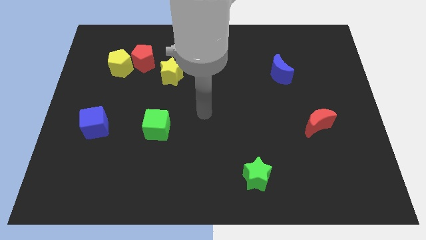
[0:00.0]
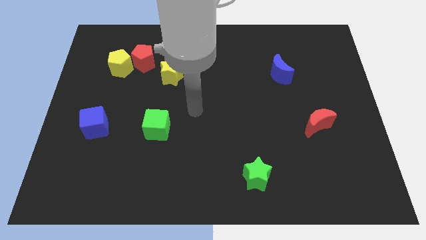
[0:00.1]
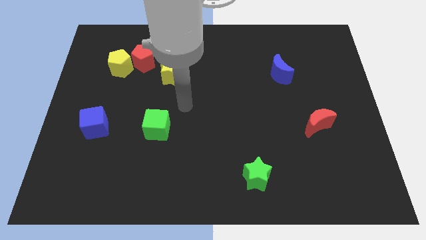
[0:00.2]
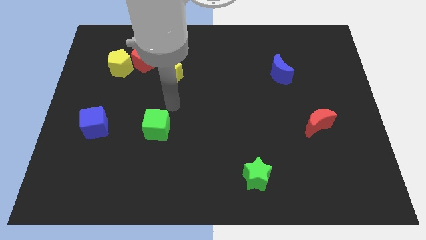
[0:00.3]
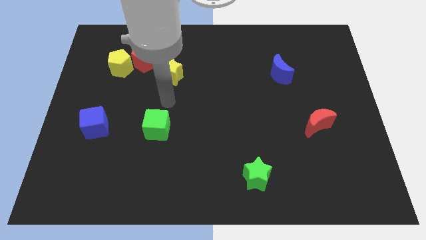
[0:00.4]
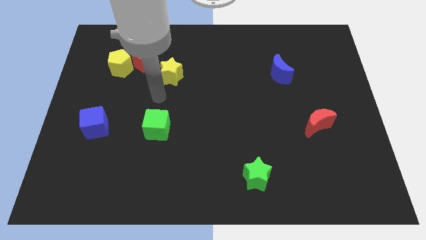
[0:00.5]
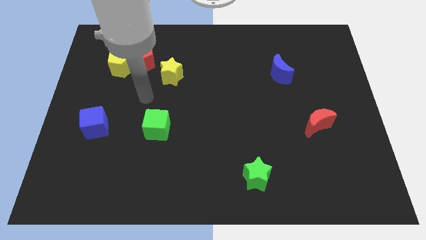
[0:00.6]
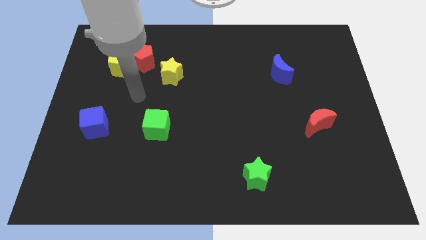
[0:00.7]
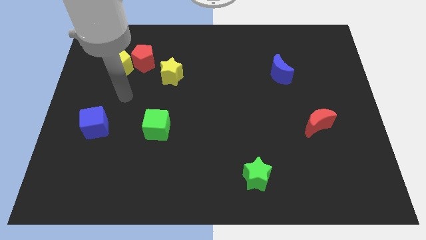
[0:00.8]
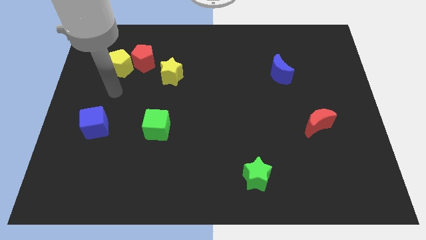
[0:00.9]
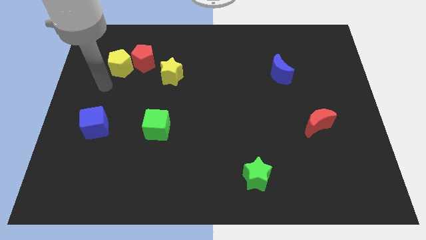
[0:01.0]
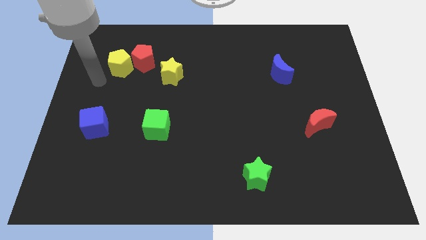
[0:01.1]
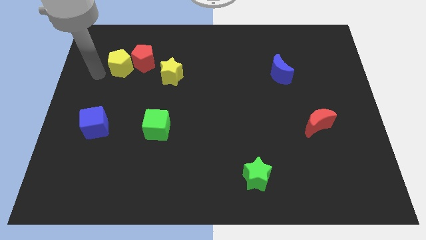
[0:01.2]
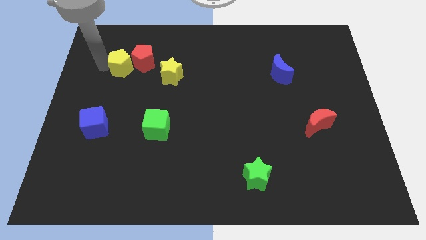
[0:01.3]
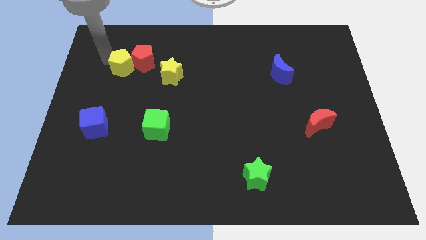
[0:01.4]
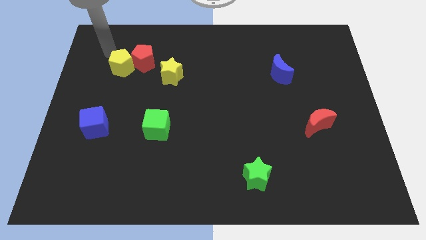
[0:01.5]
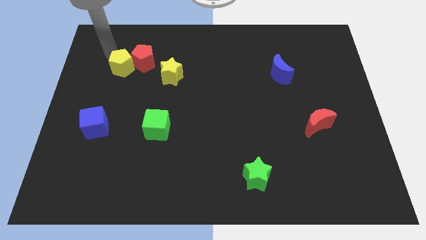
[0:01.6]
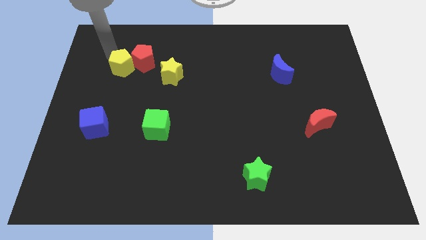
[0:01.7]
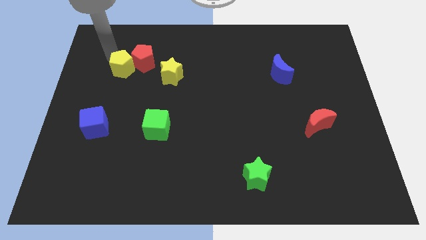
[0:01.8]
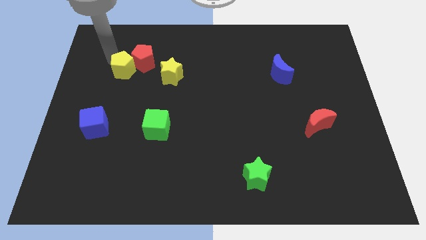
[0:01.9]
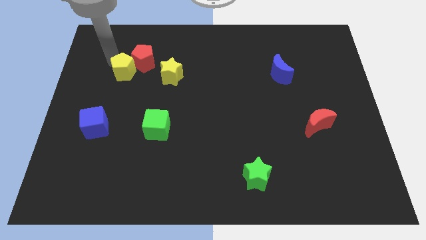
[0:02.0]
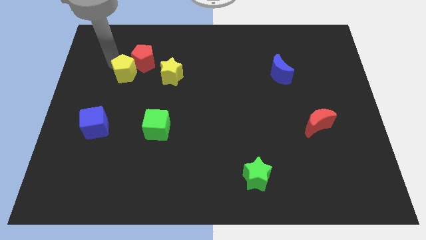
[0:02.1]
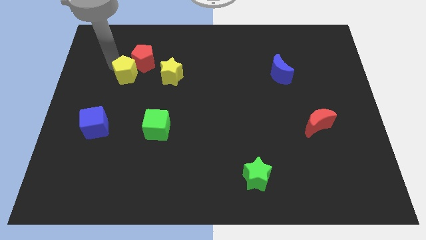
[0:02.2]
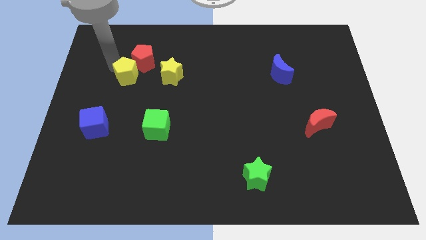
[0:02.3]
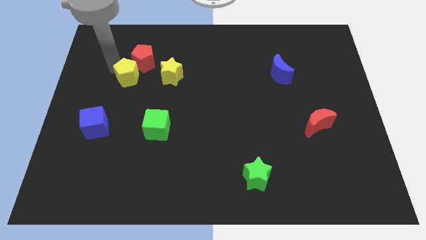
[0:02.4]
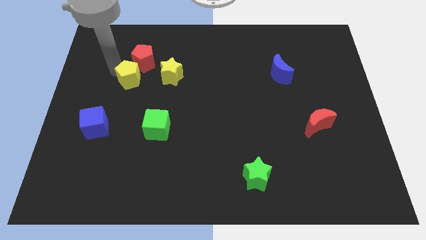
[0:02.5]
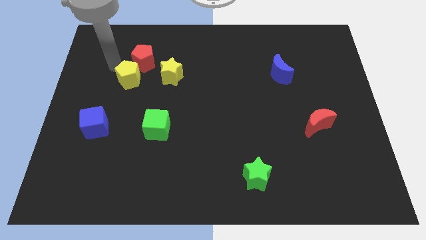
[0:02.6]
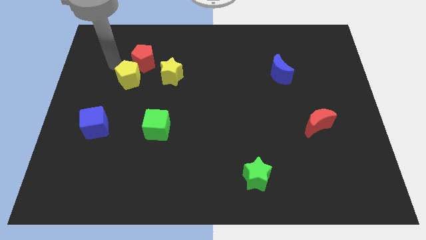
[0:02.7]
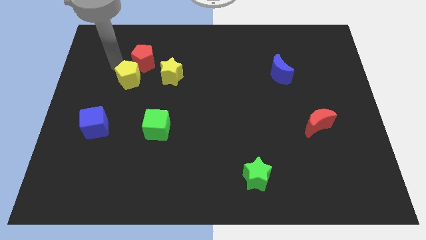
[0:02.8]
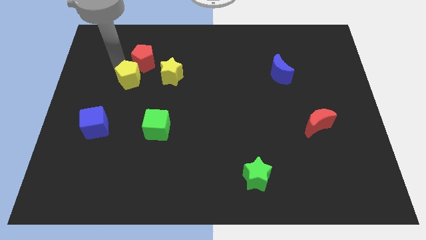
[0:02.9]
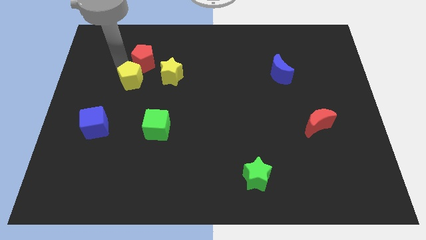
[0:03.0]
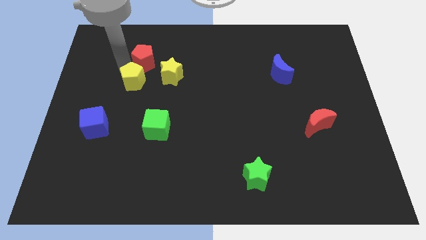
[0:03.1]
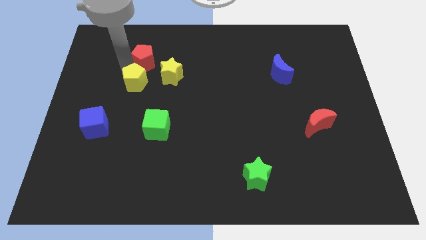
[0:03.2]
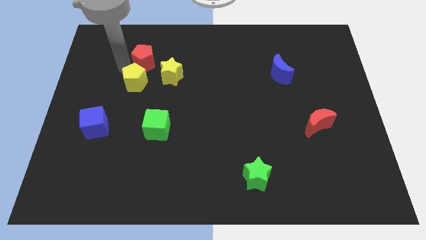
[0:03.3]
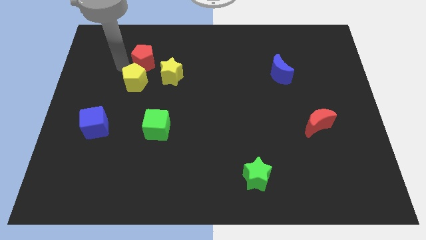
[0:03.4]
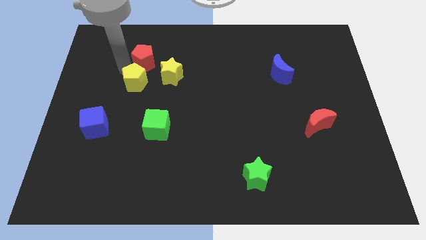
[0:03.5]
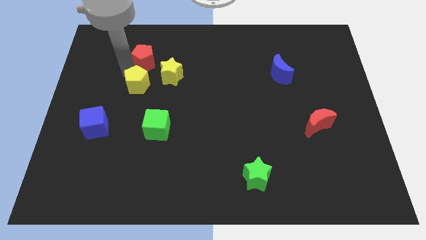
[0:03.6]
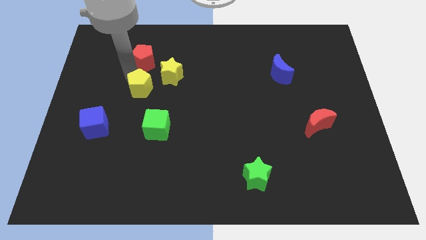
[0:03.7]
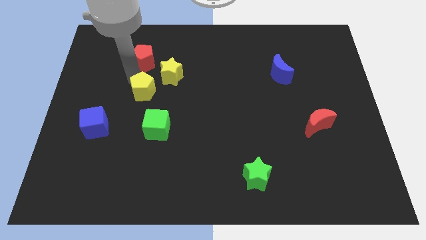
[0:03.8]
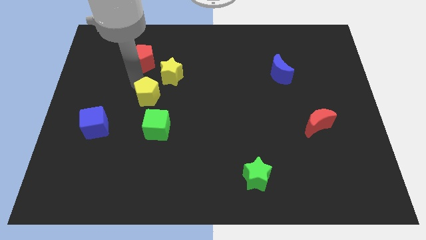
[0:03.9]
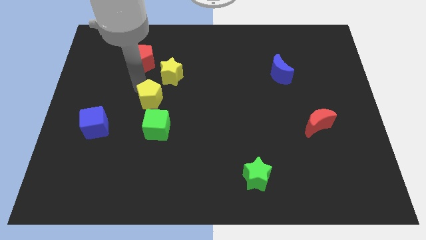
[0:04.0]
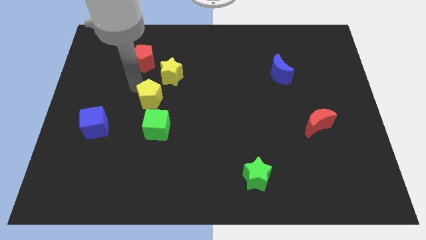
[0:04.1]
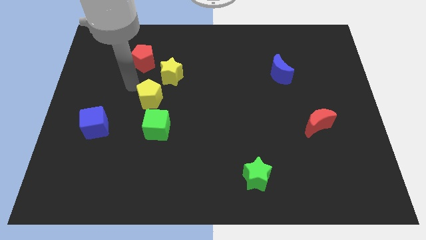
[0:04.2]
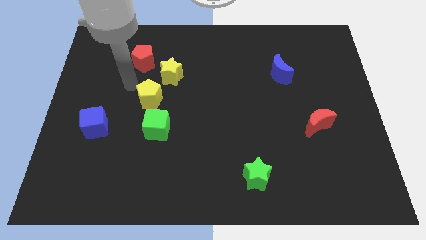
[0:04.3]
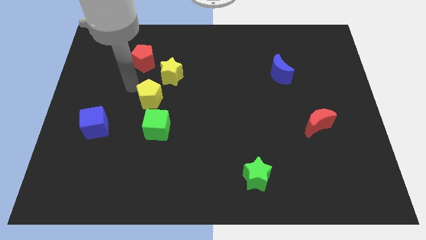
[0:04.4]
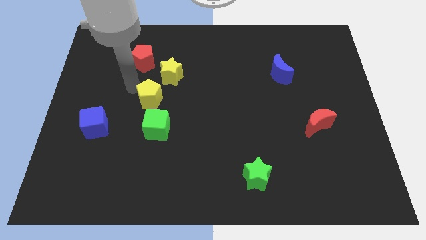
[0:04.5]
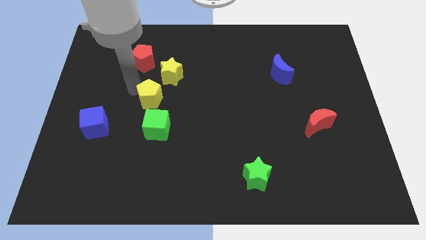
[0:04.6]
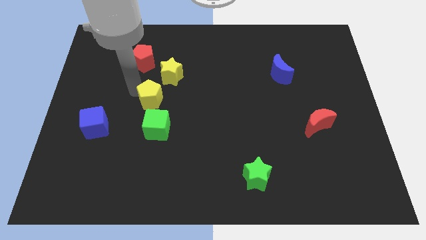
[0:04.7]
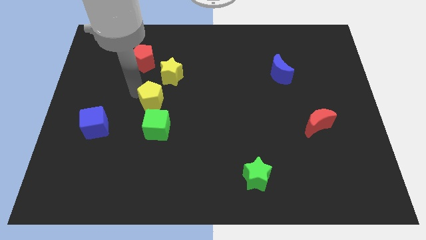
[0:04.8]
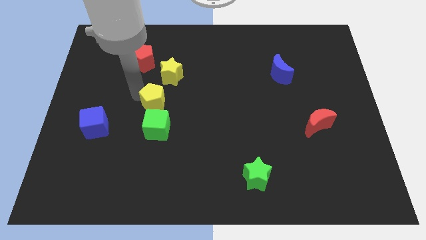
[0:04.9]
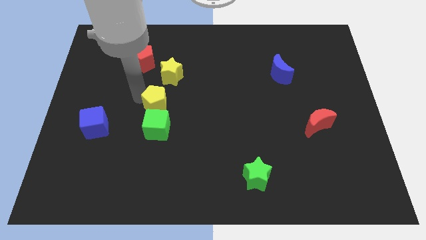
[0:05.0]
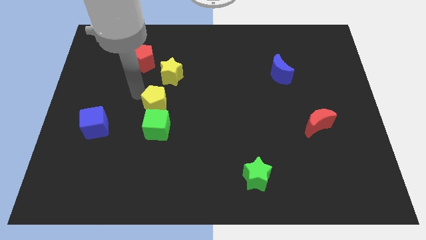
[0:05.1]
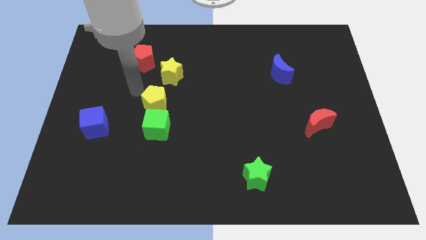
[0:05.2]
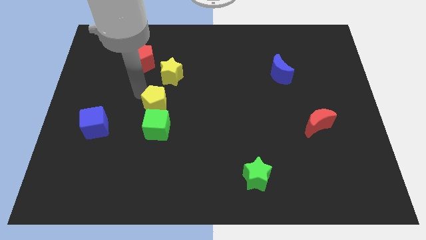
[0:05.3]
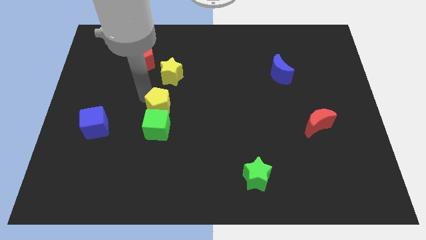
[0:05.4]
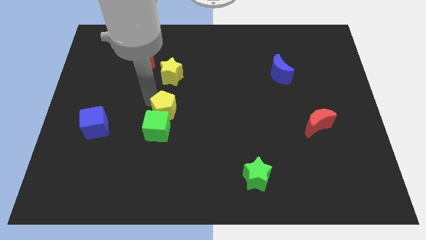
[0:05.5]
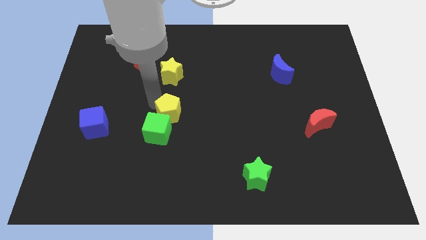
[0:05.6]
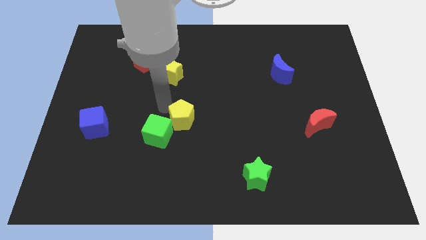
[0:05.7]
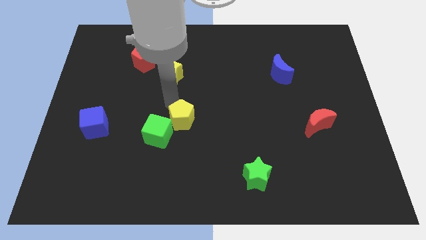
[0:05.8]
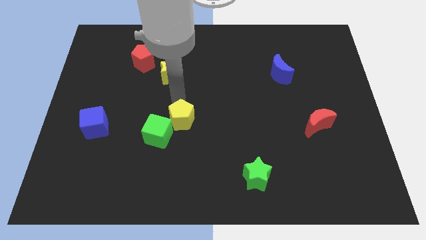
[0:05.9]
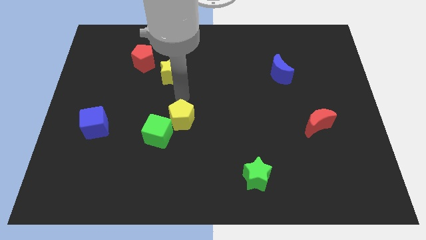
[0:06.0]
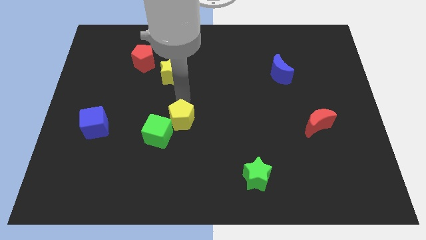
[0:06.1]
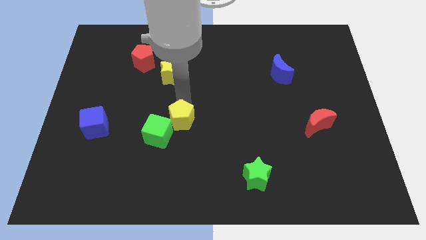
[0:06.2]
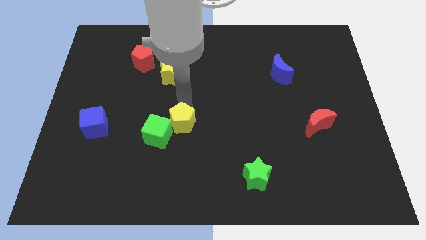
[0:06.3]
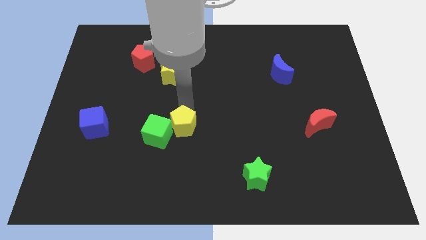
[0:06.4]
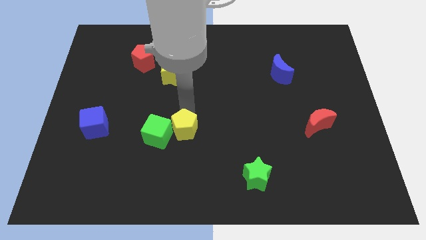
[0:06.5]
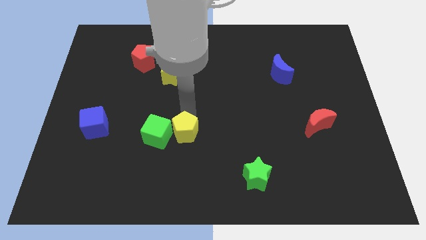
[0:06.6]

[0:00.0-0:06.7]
move the yellow pentagon diagonally down and to the right of the green cube
